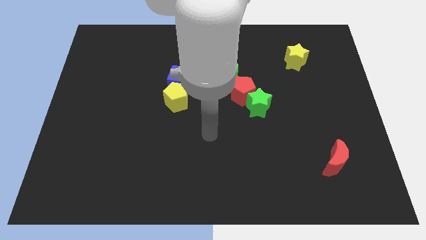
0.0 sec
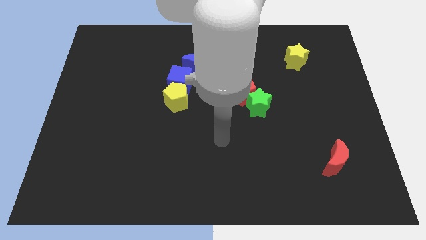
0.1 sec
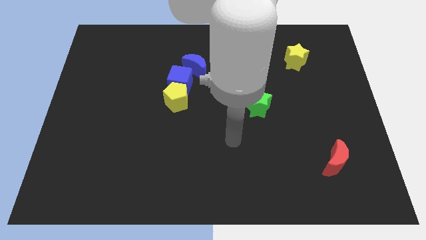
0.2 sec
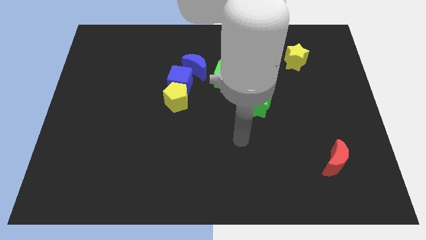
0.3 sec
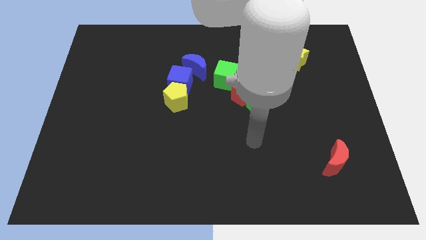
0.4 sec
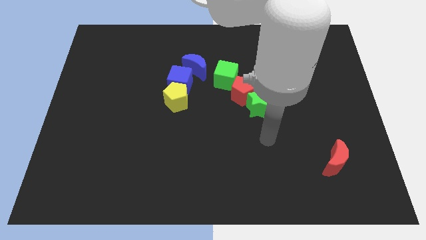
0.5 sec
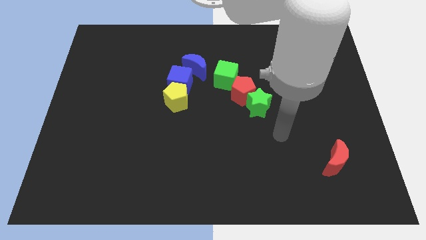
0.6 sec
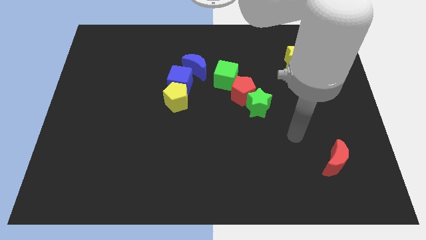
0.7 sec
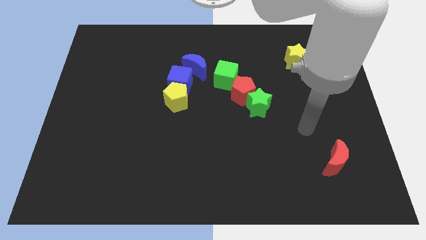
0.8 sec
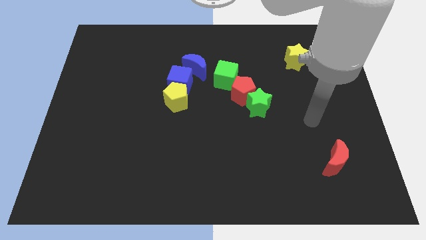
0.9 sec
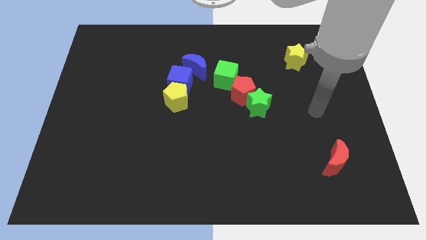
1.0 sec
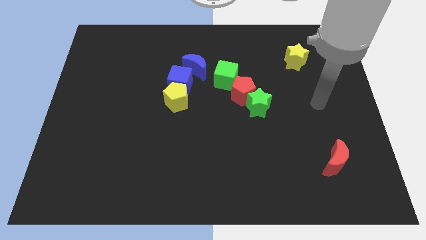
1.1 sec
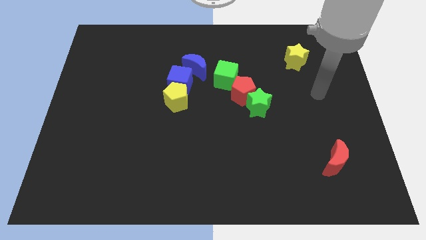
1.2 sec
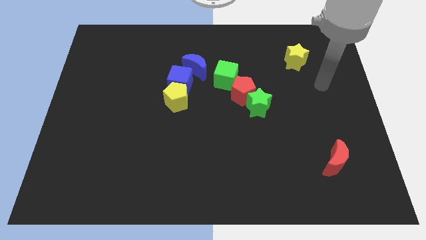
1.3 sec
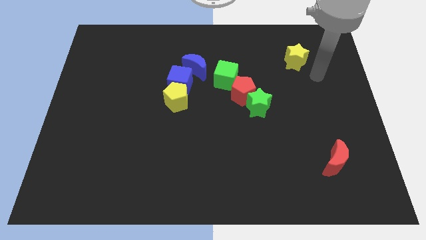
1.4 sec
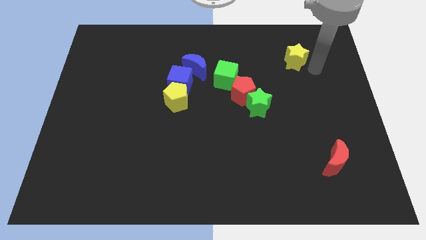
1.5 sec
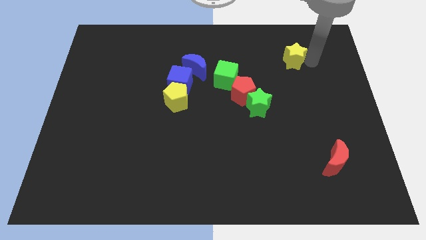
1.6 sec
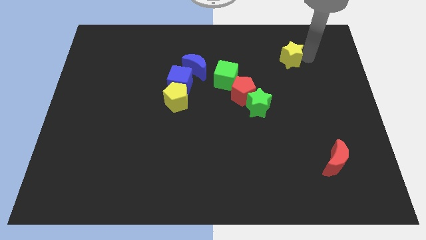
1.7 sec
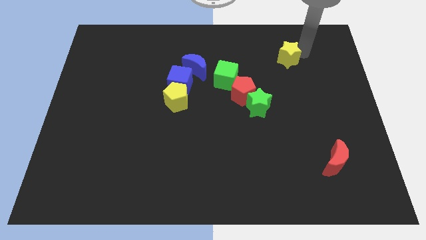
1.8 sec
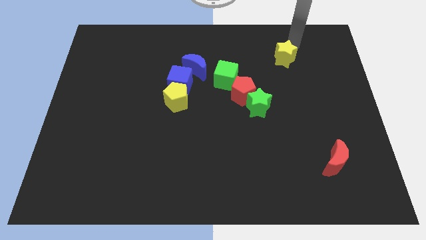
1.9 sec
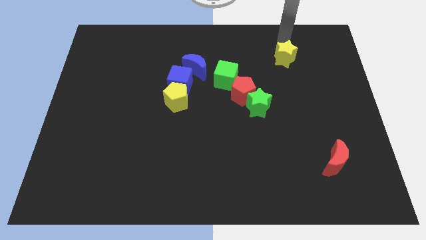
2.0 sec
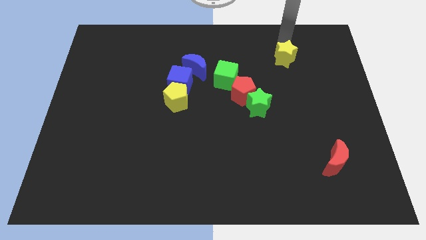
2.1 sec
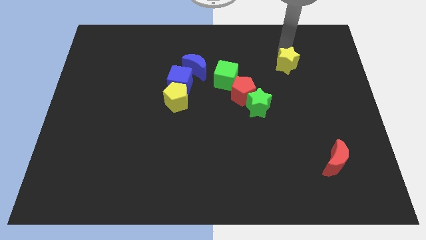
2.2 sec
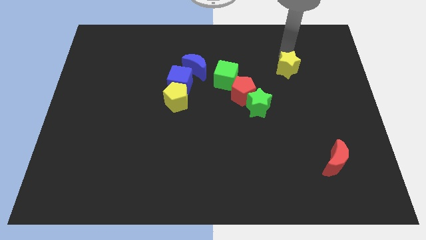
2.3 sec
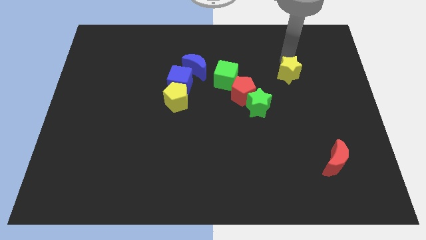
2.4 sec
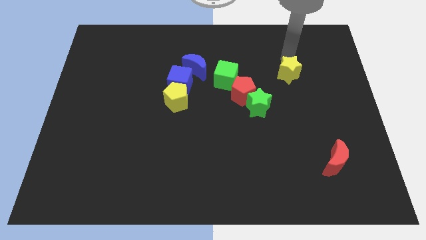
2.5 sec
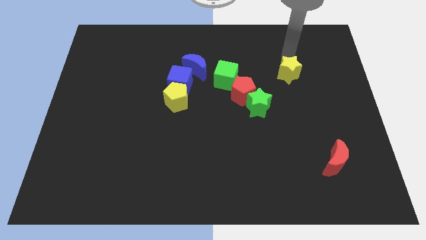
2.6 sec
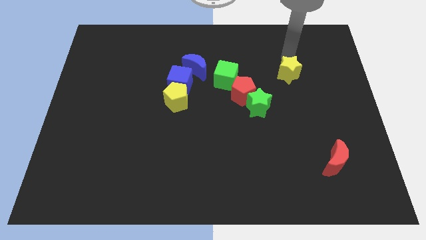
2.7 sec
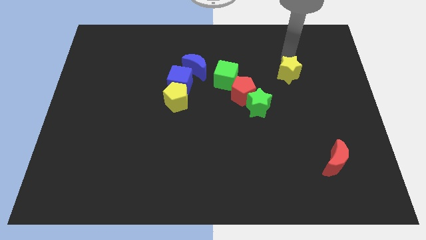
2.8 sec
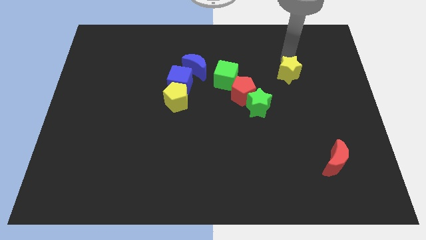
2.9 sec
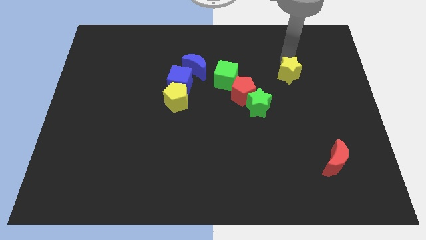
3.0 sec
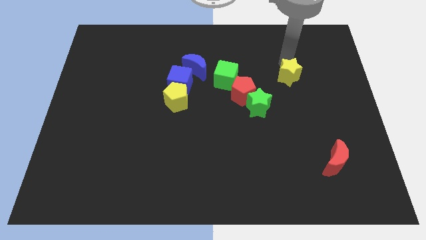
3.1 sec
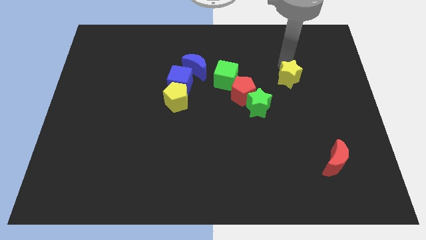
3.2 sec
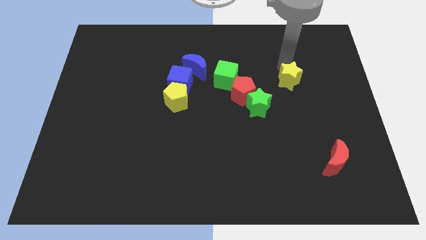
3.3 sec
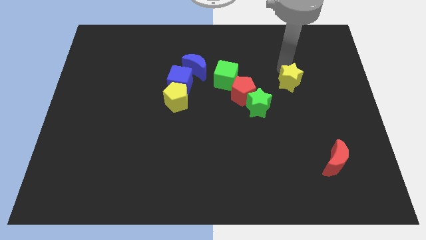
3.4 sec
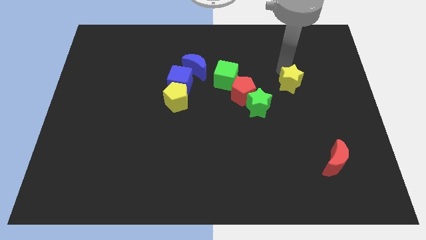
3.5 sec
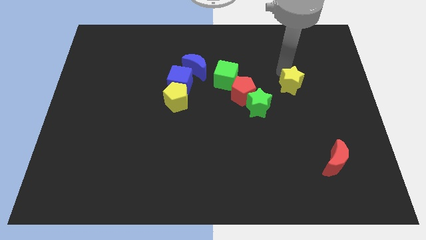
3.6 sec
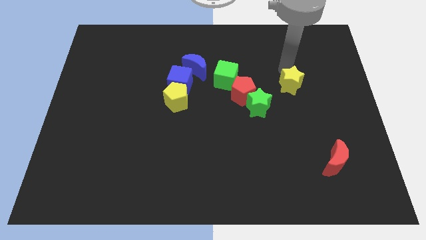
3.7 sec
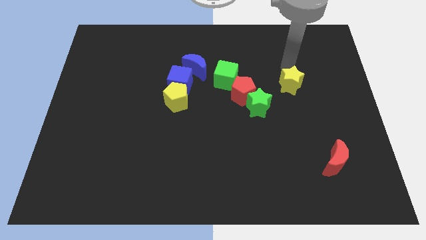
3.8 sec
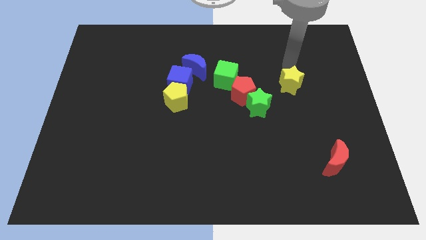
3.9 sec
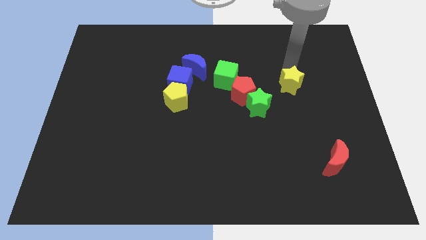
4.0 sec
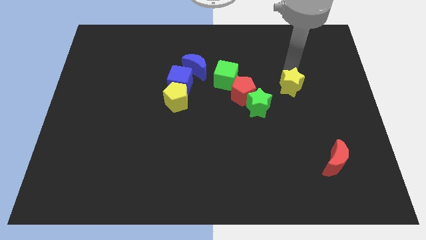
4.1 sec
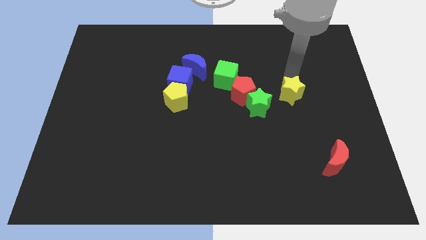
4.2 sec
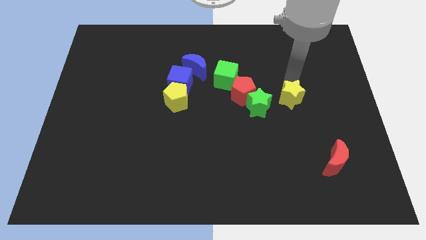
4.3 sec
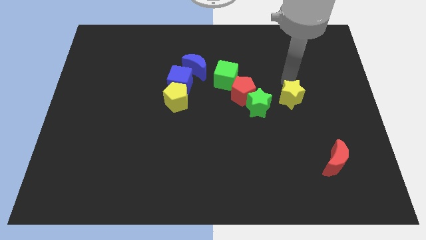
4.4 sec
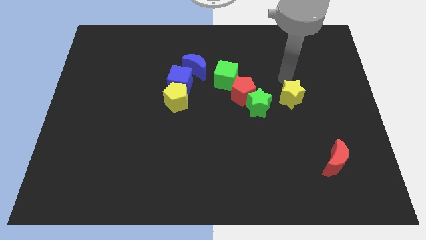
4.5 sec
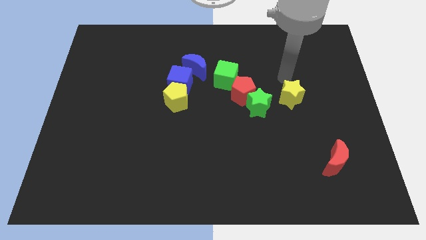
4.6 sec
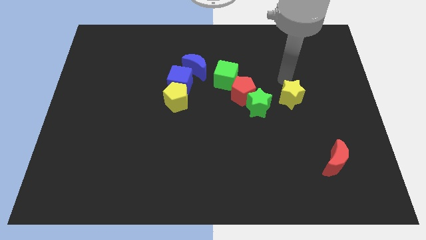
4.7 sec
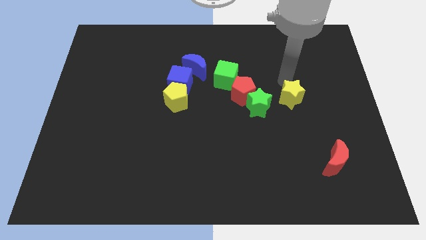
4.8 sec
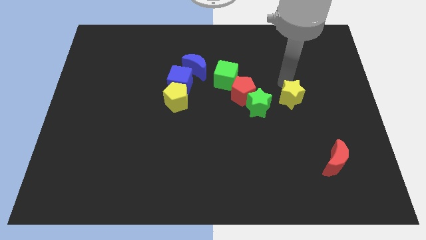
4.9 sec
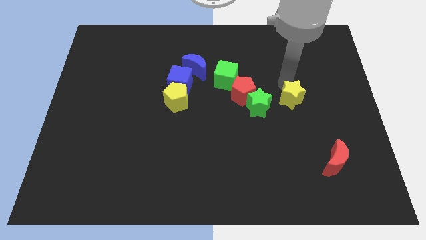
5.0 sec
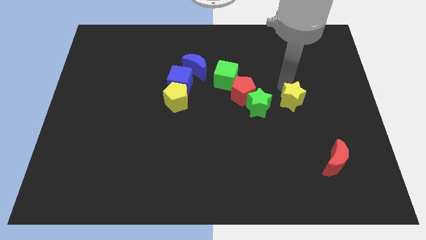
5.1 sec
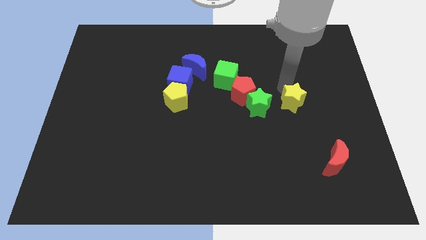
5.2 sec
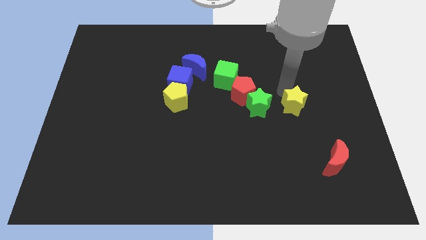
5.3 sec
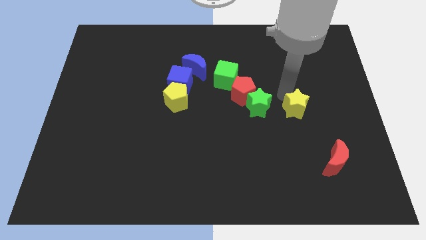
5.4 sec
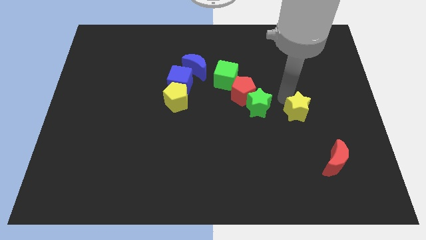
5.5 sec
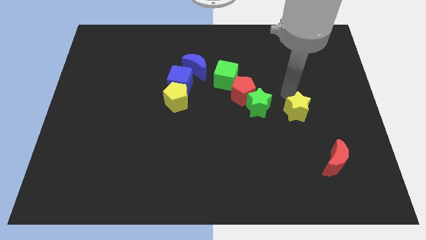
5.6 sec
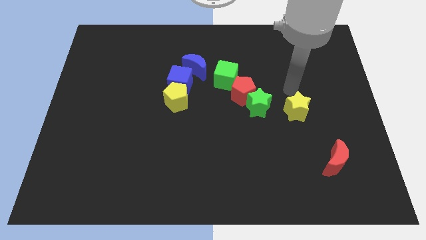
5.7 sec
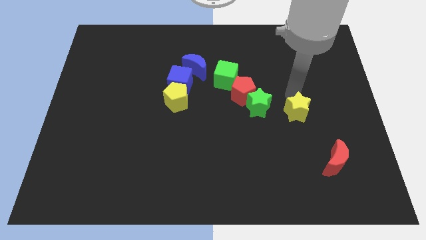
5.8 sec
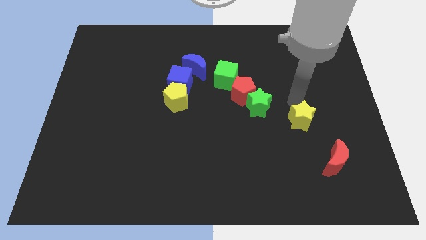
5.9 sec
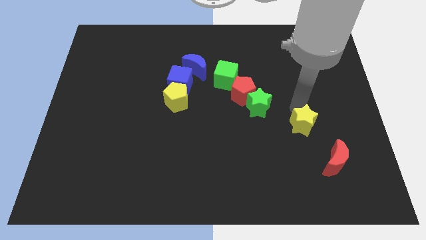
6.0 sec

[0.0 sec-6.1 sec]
move the yellow star to the top left of the red moon

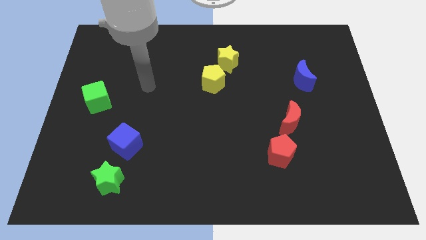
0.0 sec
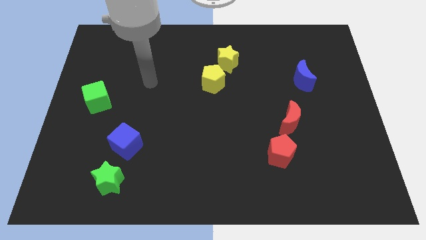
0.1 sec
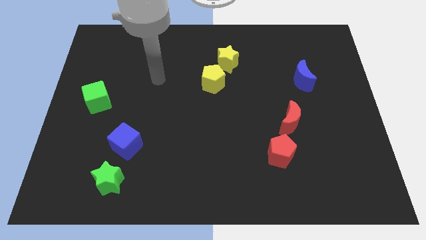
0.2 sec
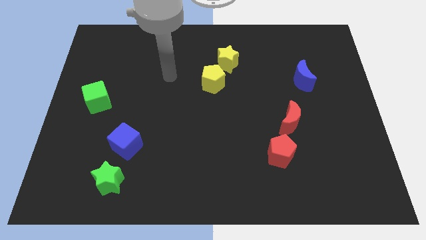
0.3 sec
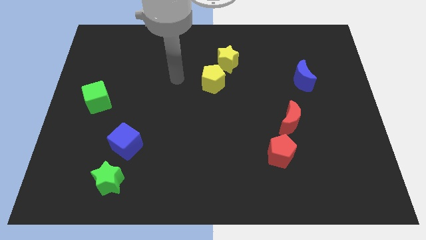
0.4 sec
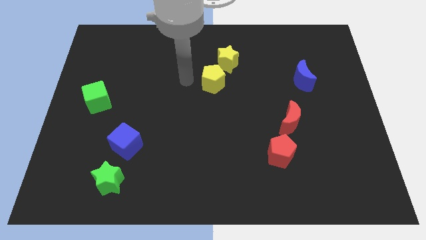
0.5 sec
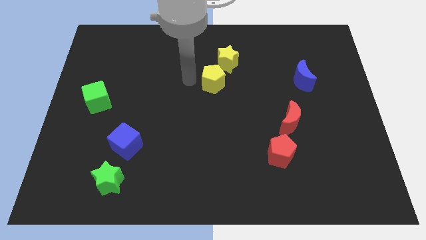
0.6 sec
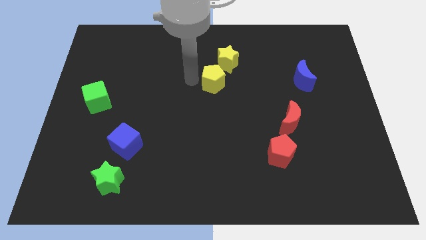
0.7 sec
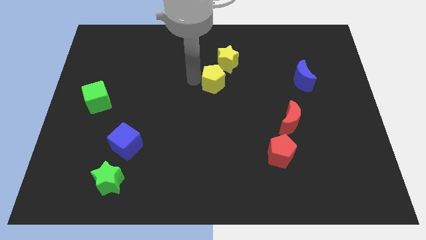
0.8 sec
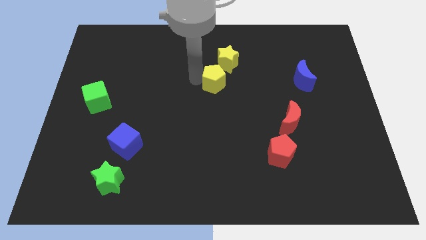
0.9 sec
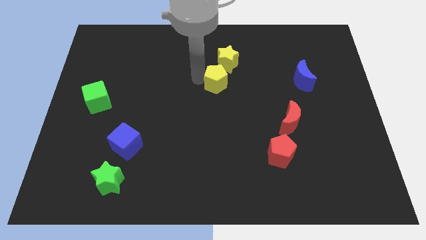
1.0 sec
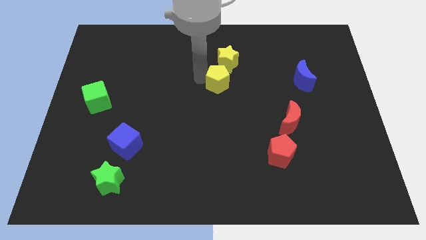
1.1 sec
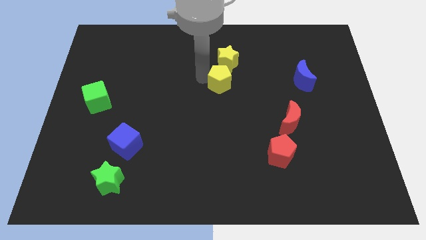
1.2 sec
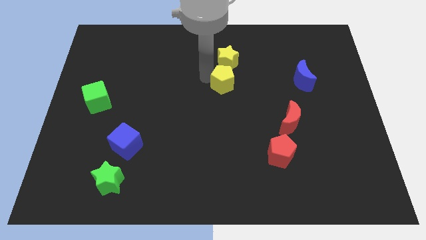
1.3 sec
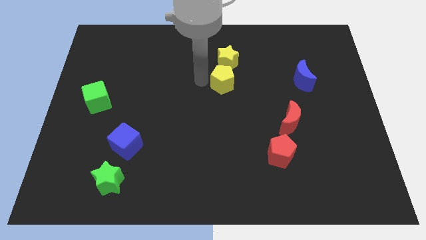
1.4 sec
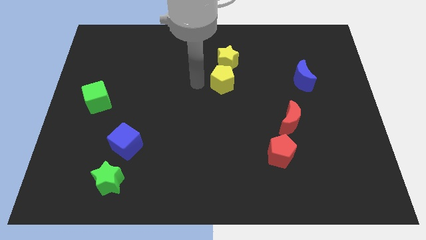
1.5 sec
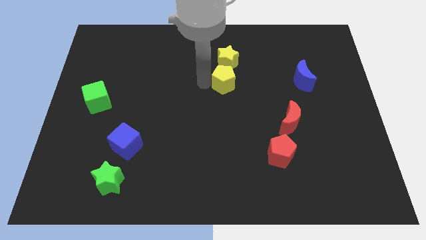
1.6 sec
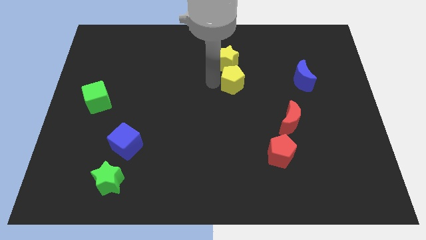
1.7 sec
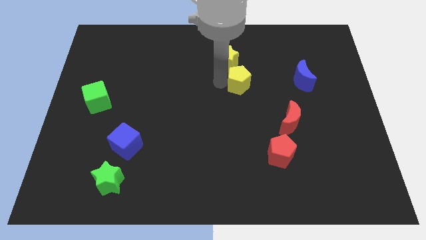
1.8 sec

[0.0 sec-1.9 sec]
put the yellow pentagon left of the blue moon
